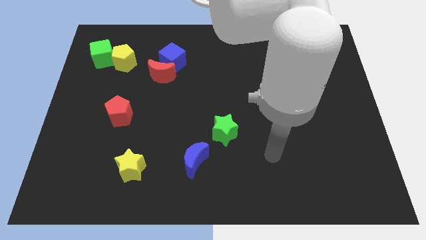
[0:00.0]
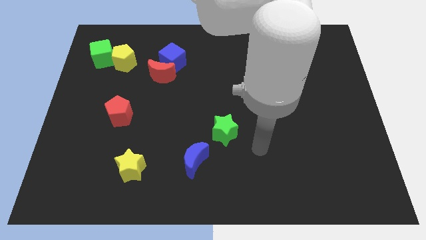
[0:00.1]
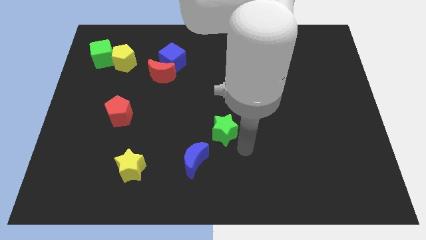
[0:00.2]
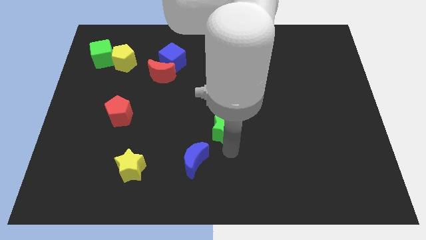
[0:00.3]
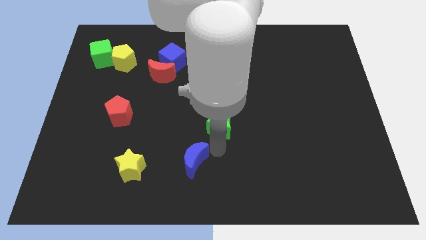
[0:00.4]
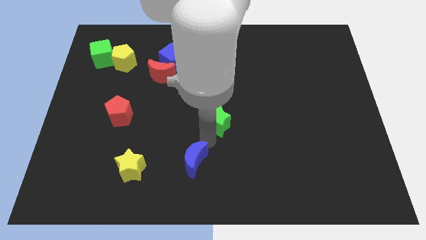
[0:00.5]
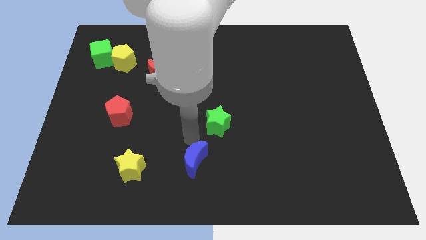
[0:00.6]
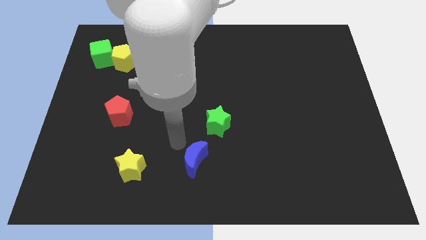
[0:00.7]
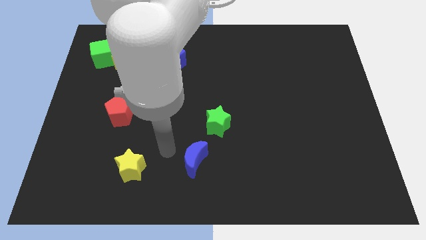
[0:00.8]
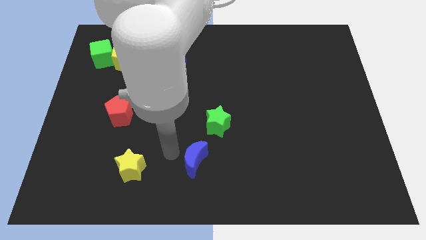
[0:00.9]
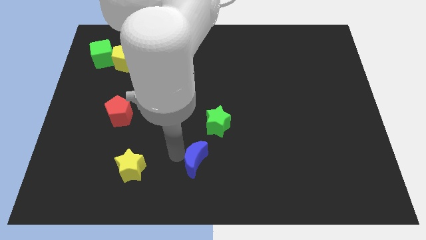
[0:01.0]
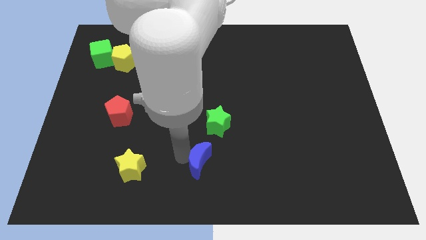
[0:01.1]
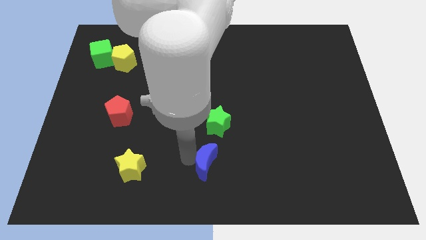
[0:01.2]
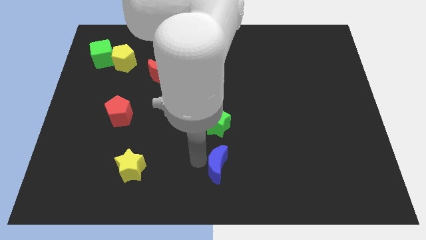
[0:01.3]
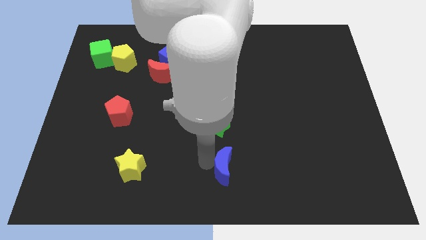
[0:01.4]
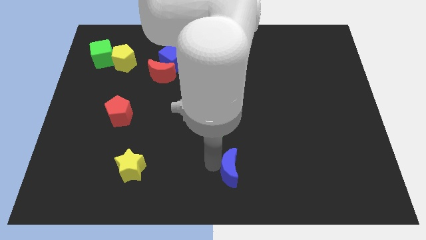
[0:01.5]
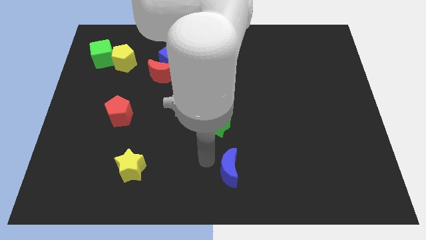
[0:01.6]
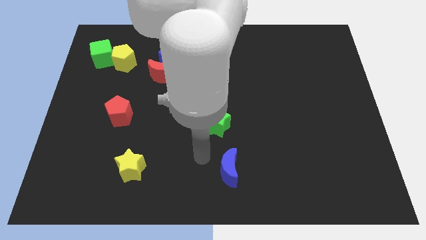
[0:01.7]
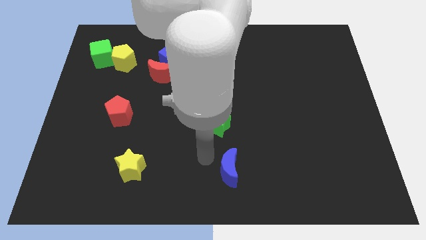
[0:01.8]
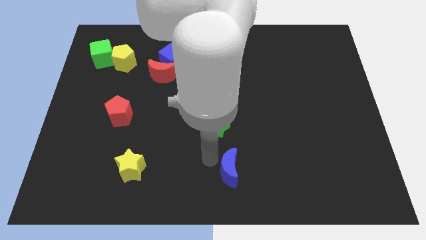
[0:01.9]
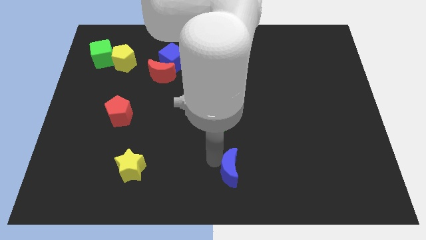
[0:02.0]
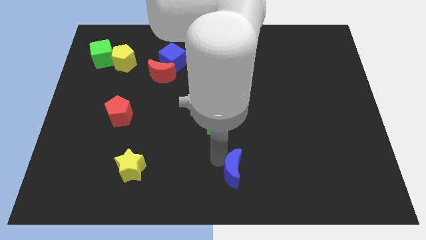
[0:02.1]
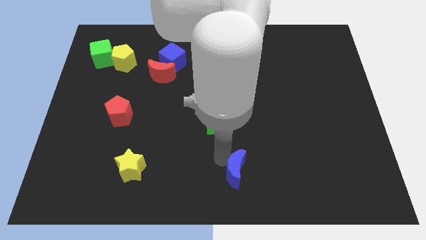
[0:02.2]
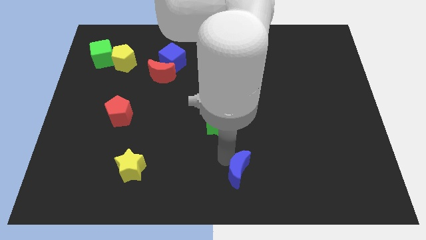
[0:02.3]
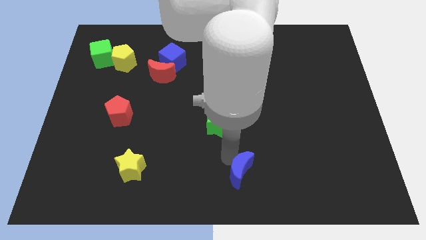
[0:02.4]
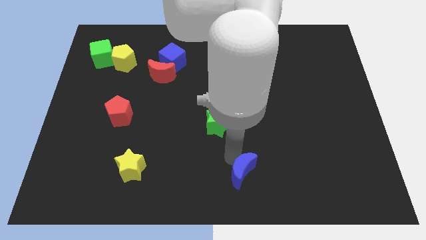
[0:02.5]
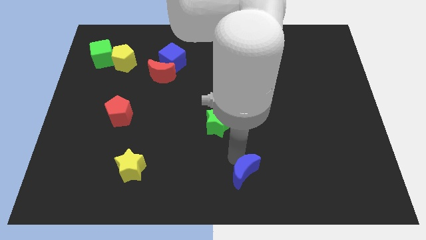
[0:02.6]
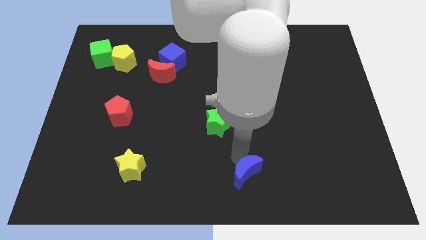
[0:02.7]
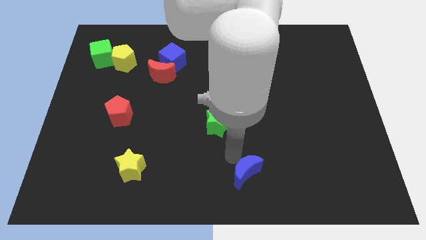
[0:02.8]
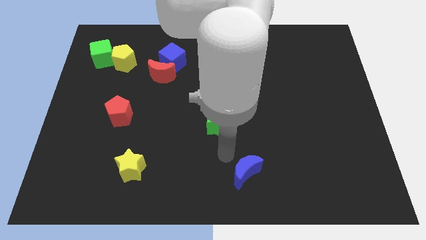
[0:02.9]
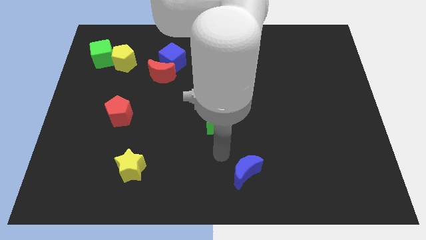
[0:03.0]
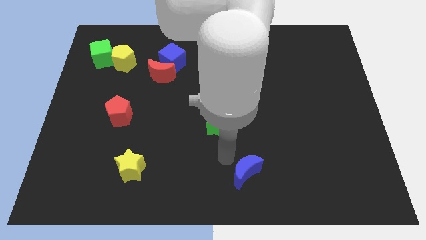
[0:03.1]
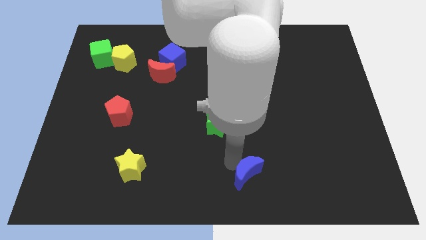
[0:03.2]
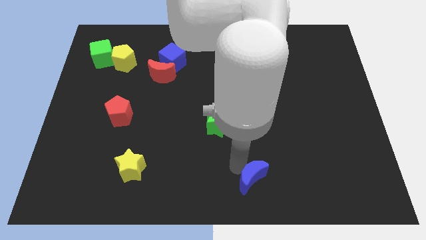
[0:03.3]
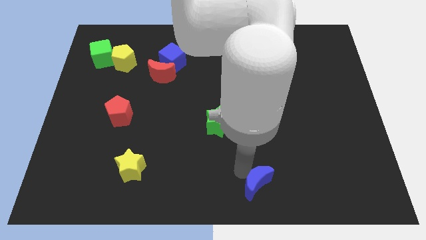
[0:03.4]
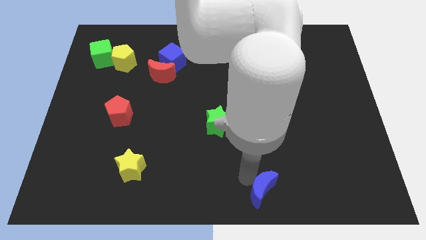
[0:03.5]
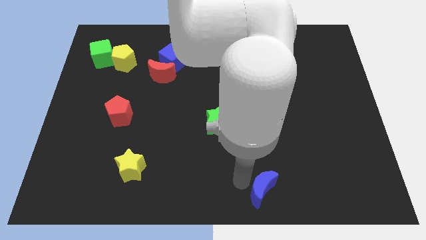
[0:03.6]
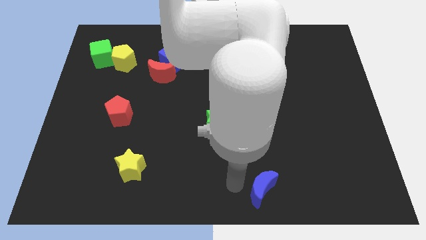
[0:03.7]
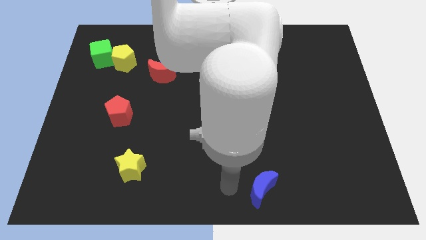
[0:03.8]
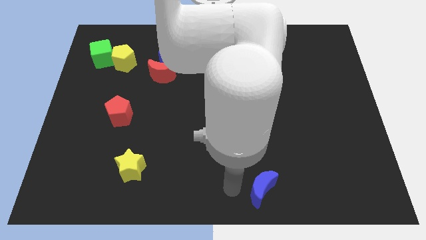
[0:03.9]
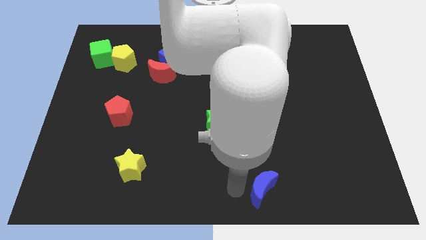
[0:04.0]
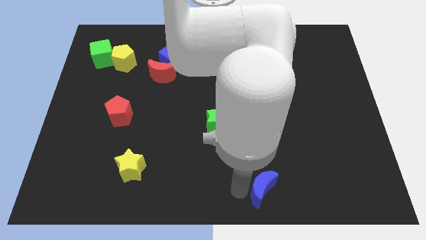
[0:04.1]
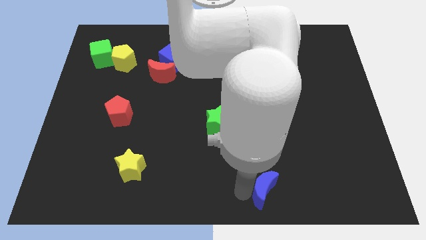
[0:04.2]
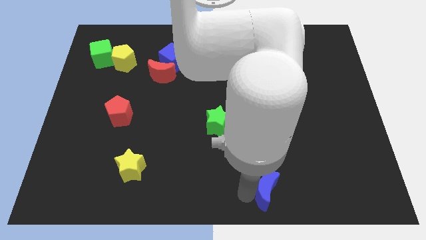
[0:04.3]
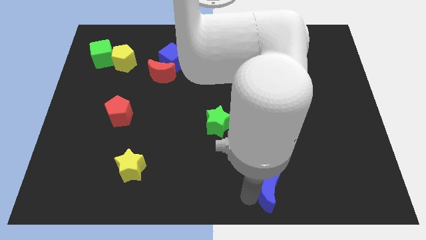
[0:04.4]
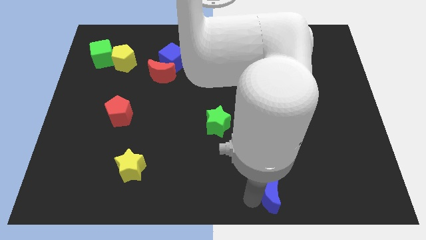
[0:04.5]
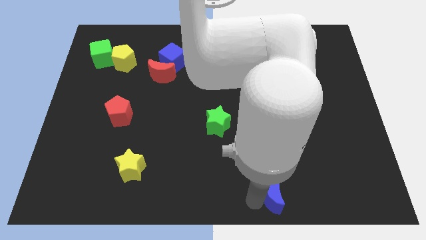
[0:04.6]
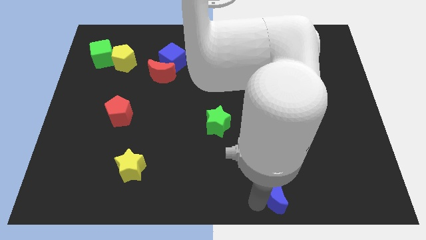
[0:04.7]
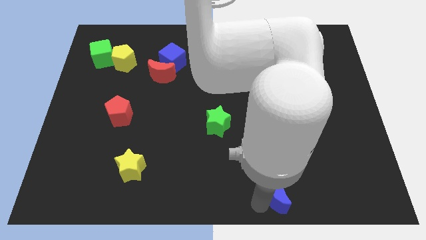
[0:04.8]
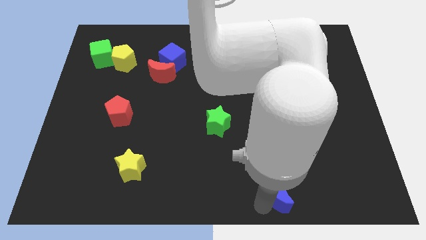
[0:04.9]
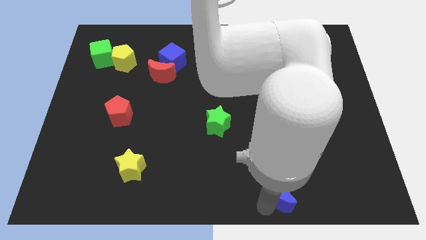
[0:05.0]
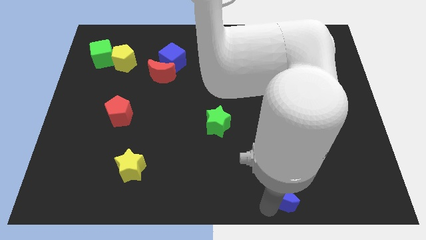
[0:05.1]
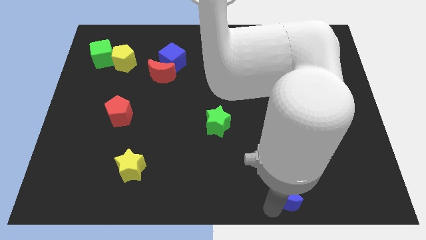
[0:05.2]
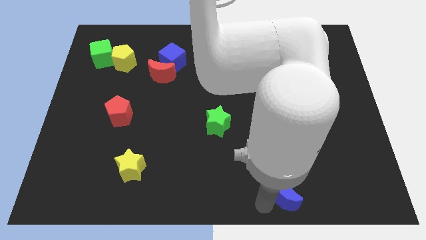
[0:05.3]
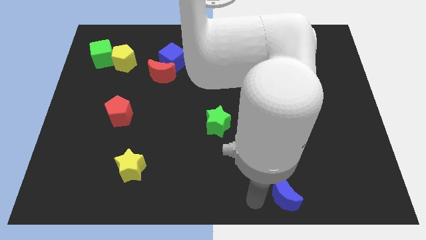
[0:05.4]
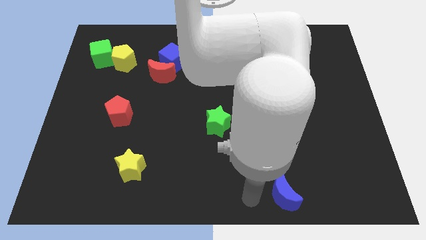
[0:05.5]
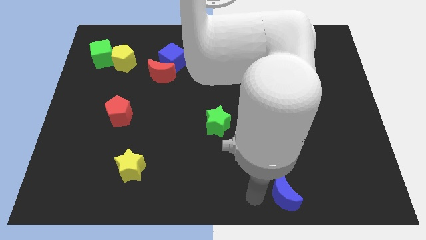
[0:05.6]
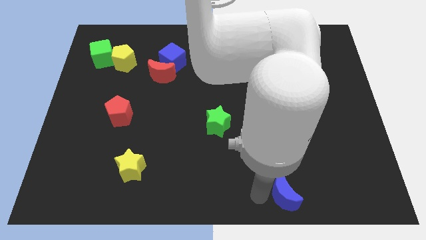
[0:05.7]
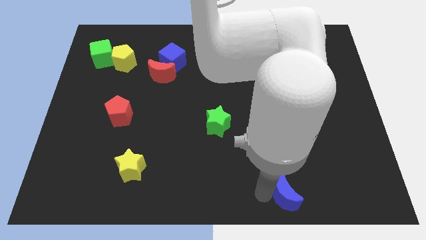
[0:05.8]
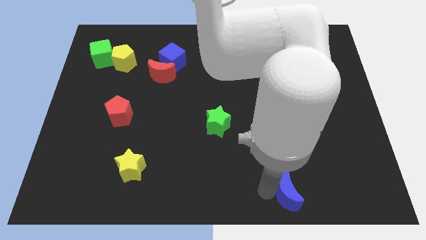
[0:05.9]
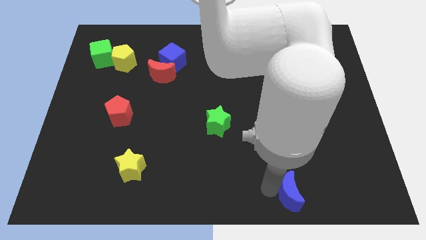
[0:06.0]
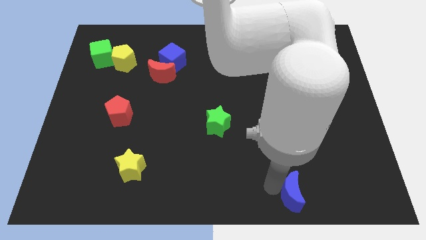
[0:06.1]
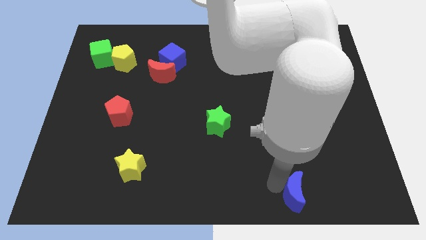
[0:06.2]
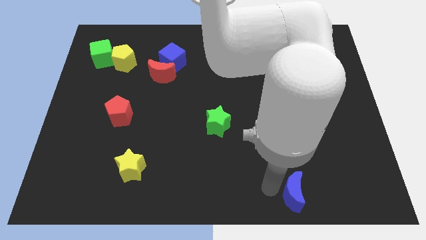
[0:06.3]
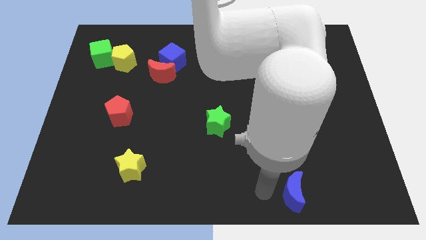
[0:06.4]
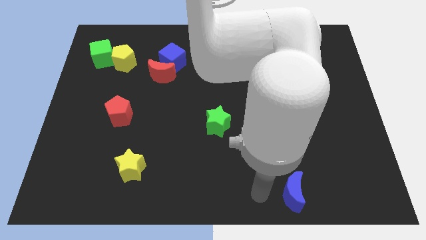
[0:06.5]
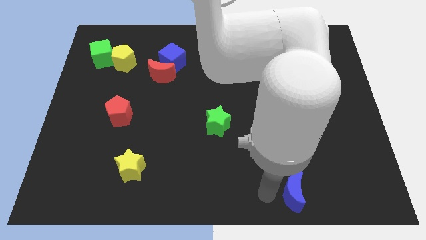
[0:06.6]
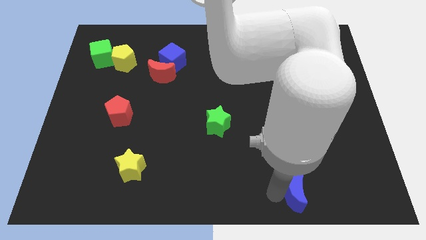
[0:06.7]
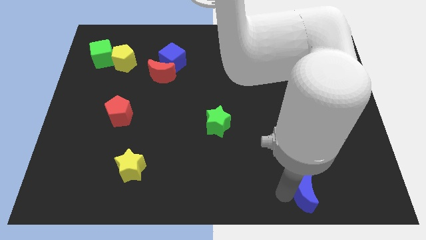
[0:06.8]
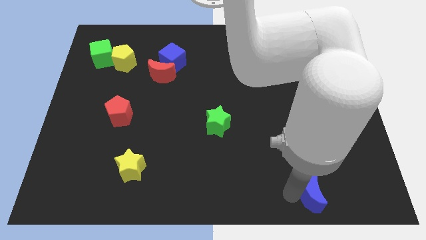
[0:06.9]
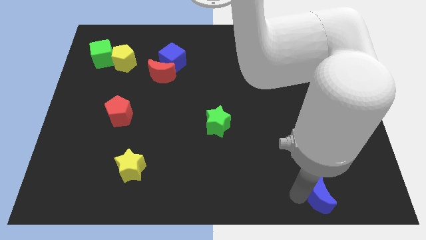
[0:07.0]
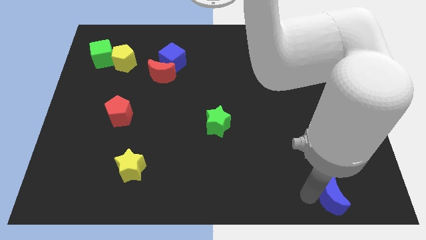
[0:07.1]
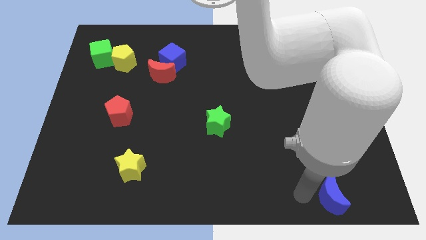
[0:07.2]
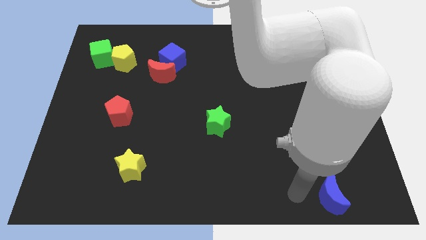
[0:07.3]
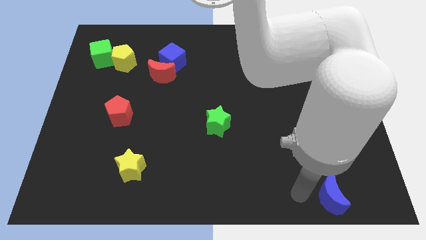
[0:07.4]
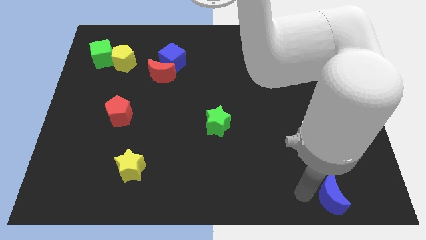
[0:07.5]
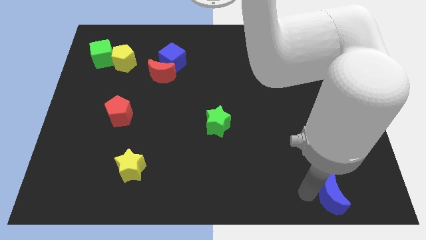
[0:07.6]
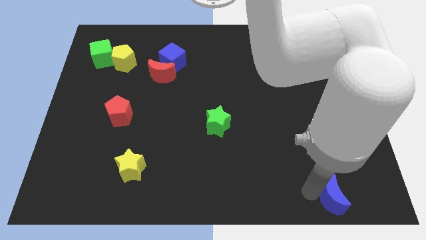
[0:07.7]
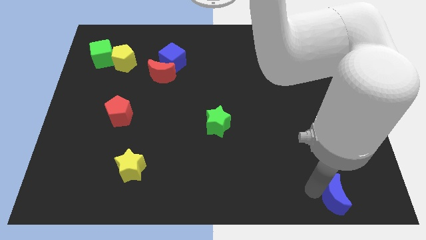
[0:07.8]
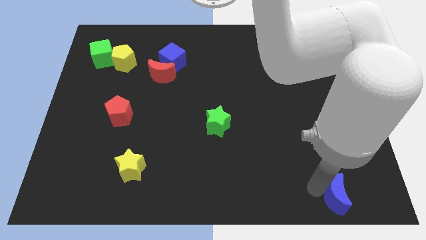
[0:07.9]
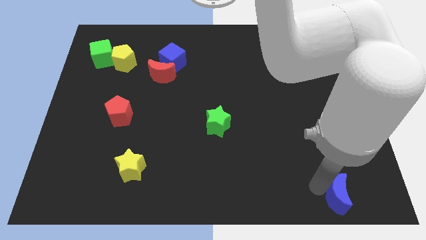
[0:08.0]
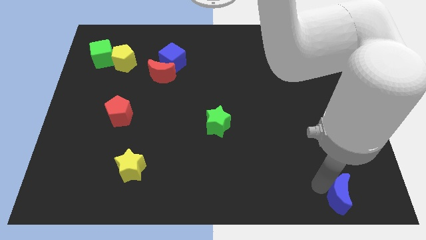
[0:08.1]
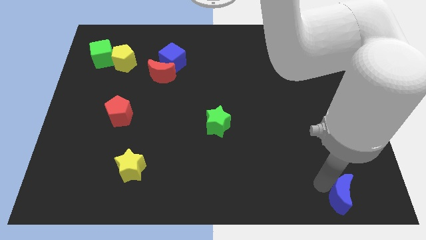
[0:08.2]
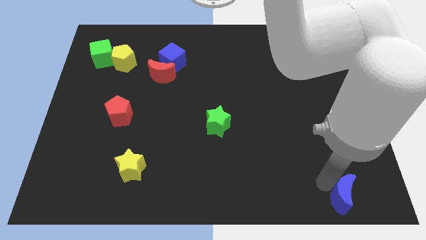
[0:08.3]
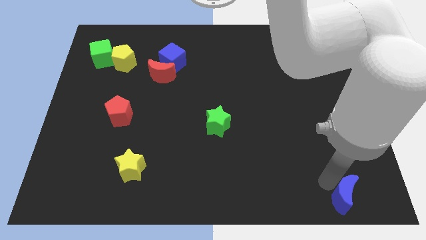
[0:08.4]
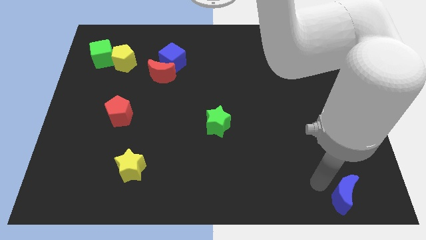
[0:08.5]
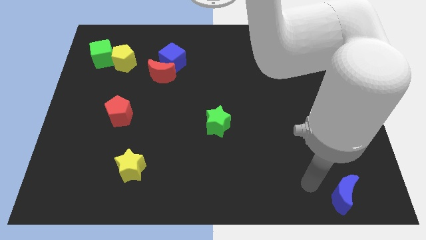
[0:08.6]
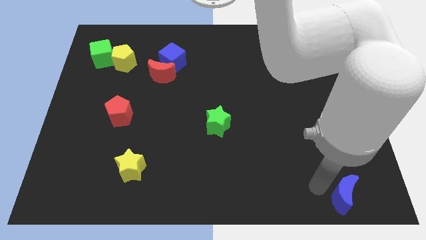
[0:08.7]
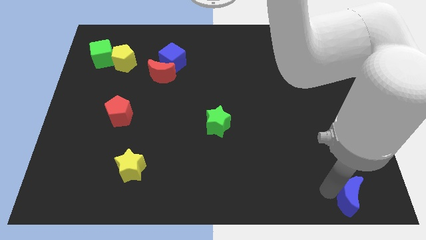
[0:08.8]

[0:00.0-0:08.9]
put the blue moon to the bottom right of the board
